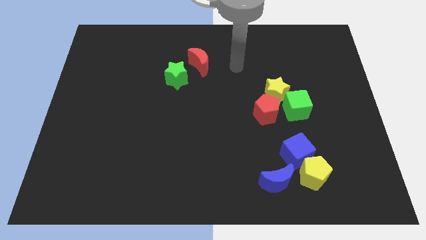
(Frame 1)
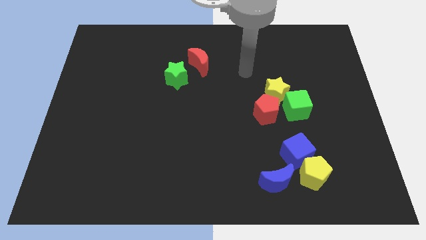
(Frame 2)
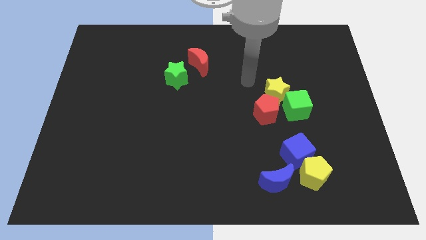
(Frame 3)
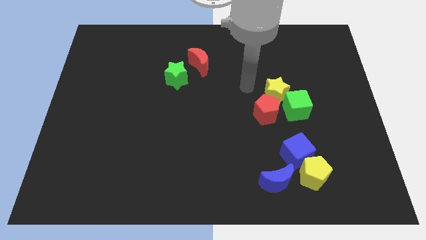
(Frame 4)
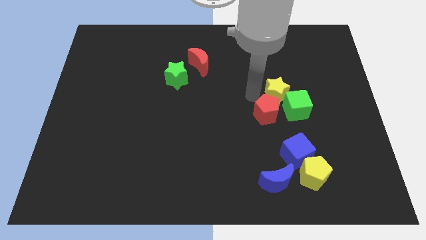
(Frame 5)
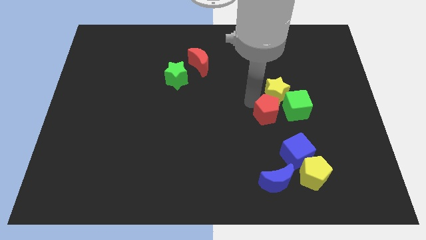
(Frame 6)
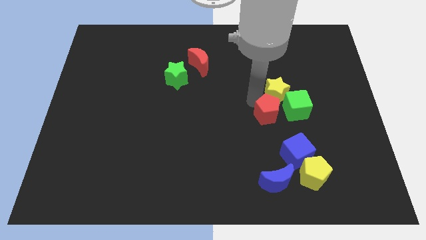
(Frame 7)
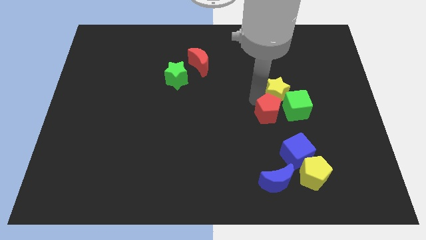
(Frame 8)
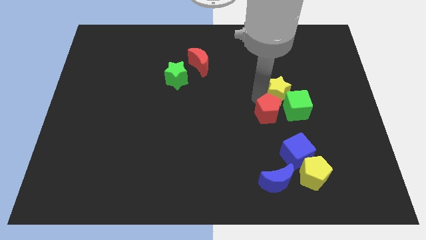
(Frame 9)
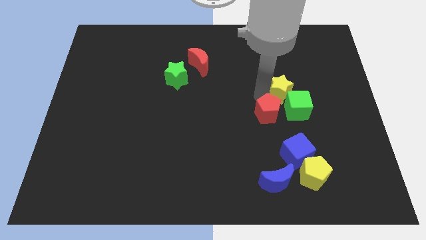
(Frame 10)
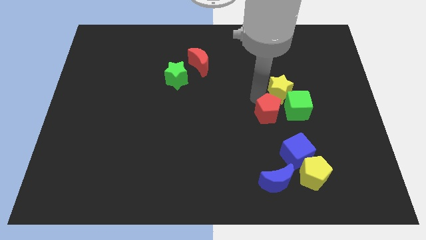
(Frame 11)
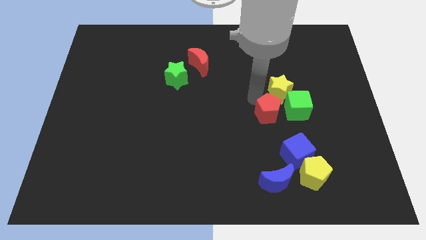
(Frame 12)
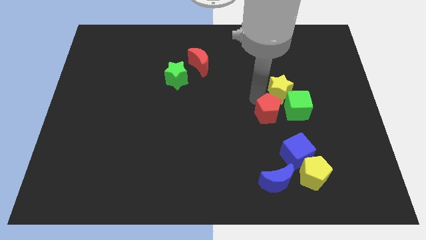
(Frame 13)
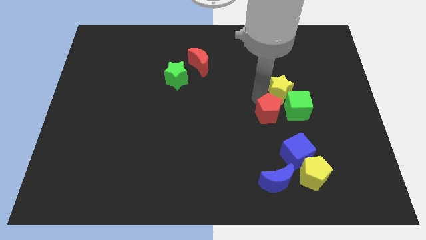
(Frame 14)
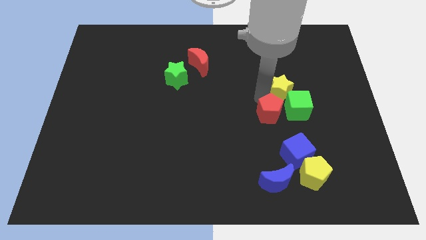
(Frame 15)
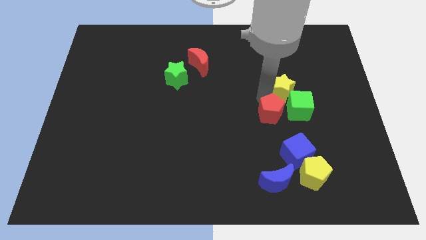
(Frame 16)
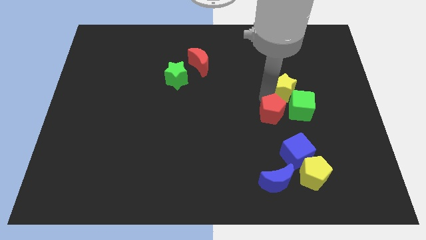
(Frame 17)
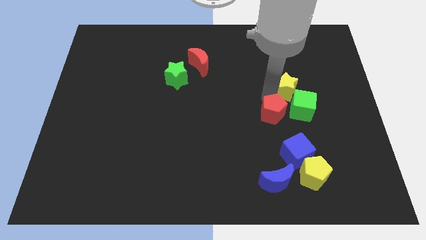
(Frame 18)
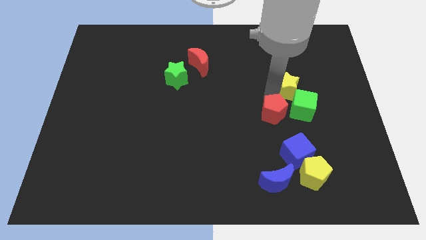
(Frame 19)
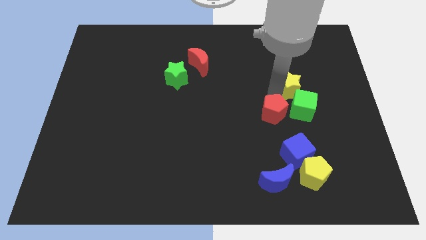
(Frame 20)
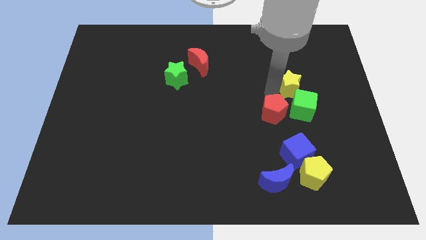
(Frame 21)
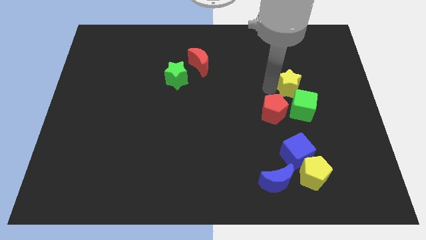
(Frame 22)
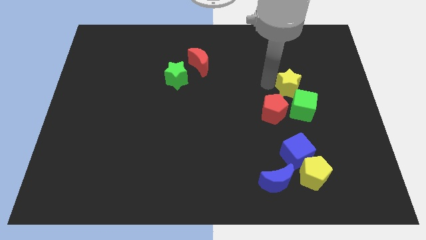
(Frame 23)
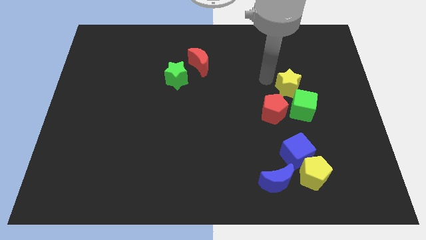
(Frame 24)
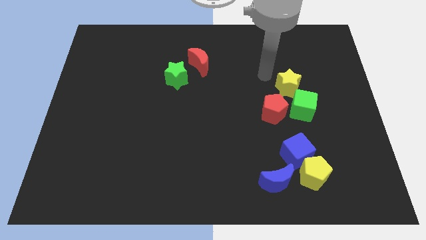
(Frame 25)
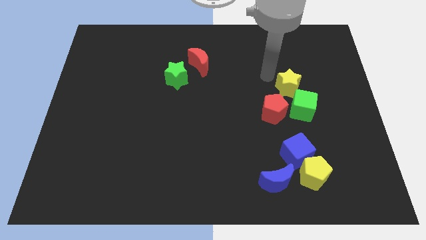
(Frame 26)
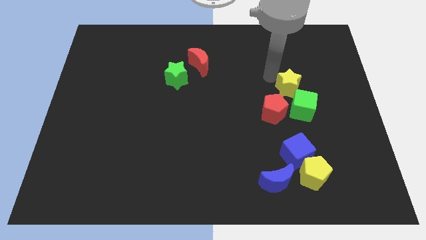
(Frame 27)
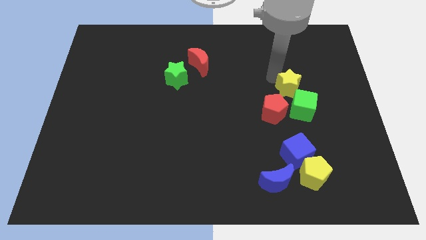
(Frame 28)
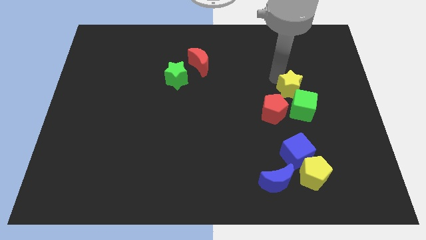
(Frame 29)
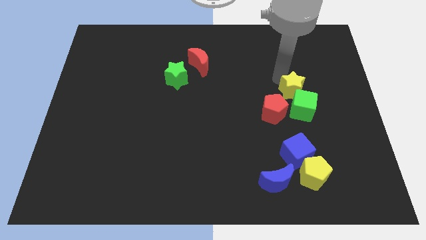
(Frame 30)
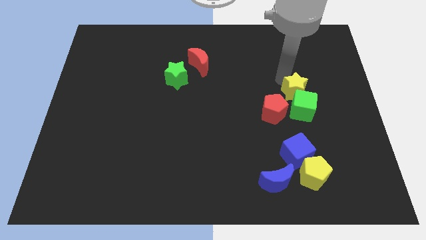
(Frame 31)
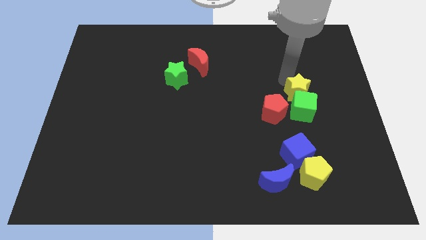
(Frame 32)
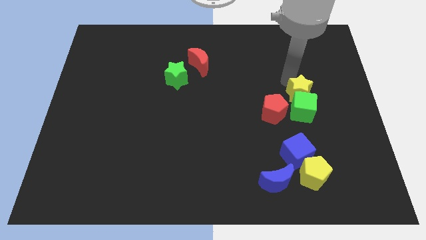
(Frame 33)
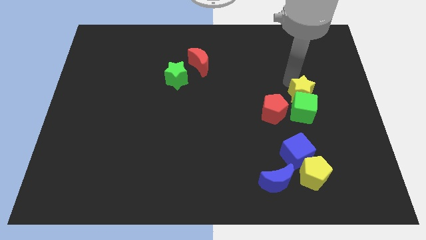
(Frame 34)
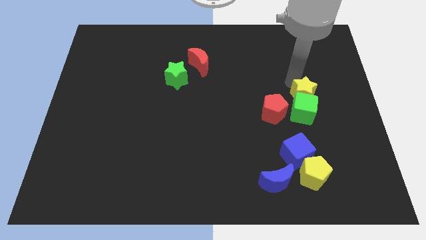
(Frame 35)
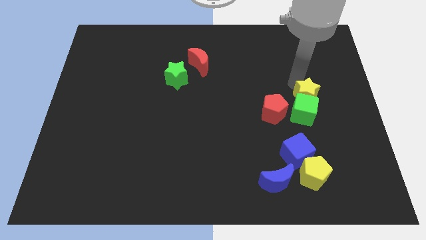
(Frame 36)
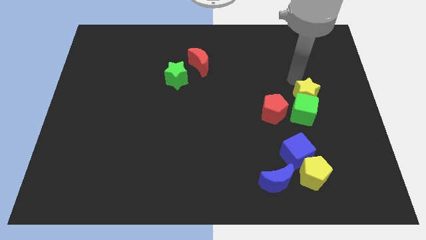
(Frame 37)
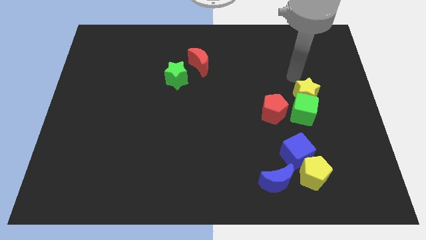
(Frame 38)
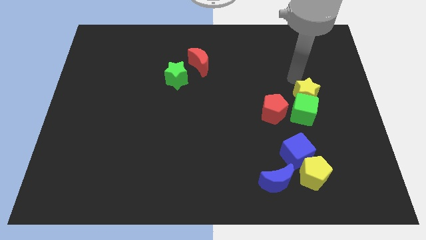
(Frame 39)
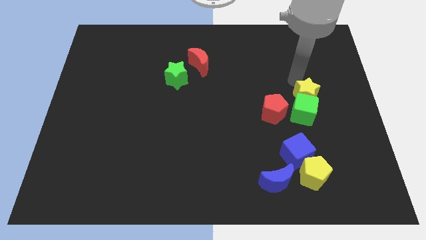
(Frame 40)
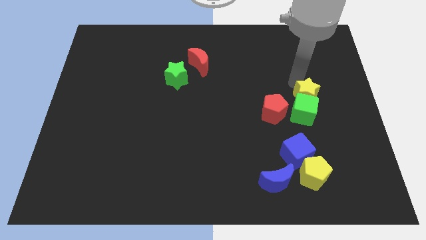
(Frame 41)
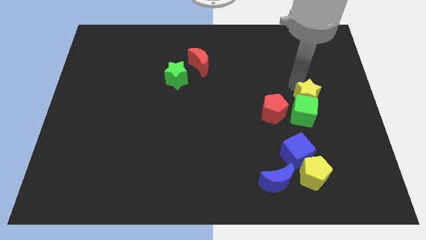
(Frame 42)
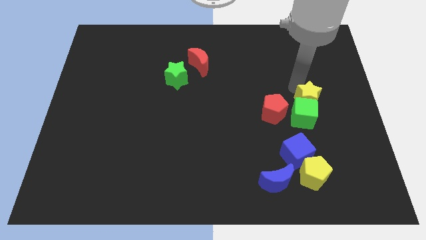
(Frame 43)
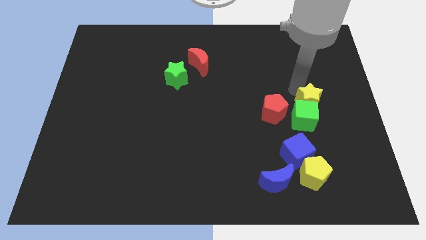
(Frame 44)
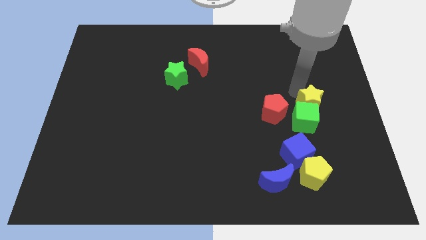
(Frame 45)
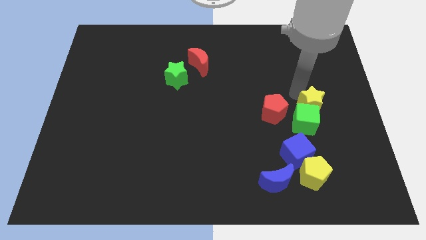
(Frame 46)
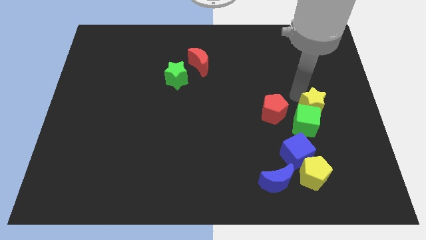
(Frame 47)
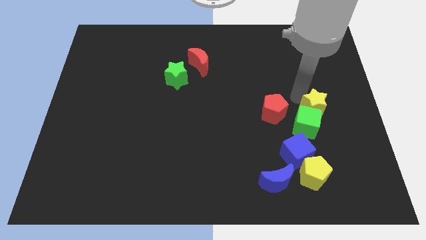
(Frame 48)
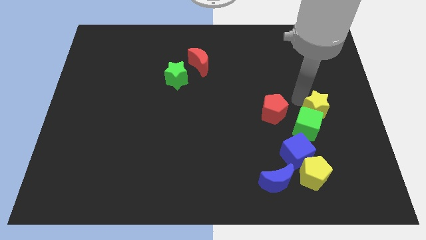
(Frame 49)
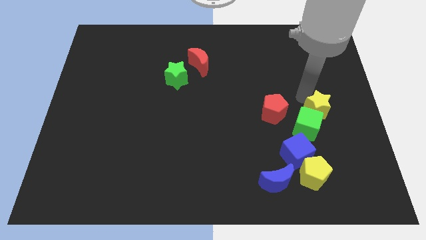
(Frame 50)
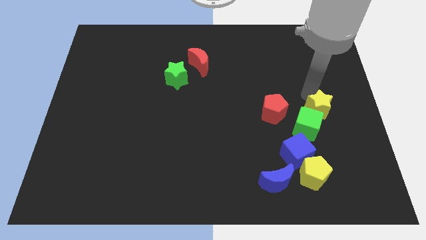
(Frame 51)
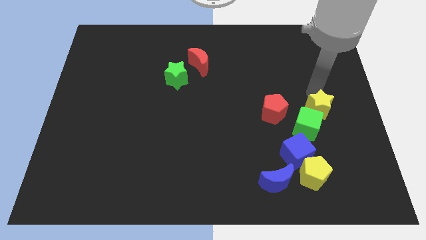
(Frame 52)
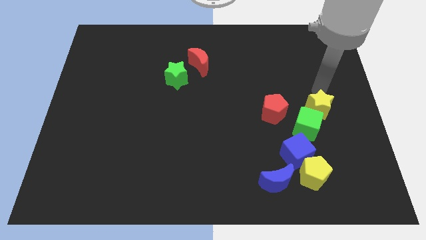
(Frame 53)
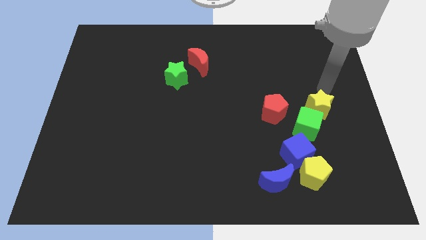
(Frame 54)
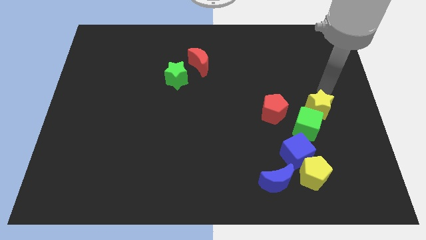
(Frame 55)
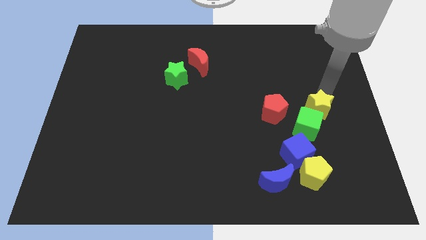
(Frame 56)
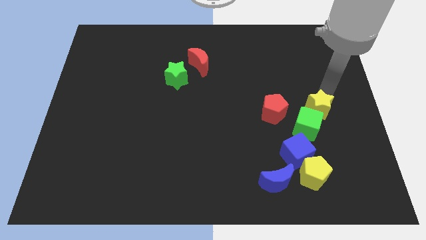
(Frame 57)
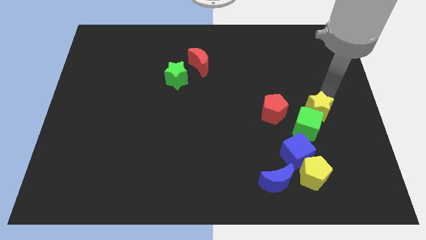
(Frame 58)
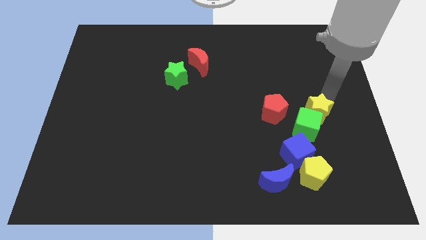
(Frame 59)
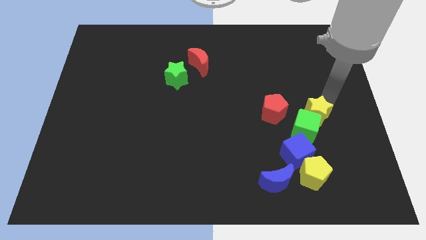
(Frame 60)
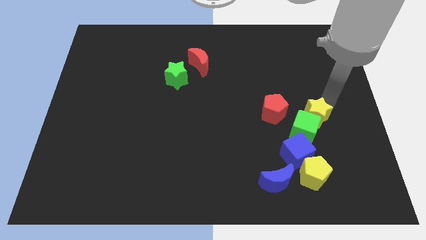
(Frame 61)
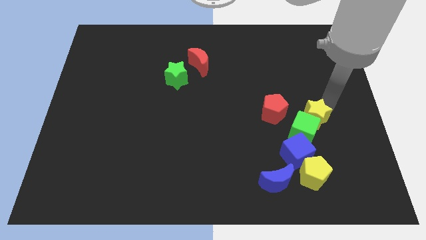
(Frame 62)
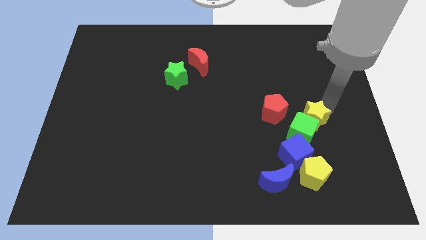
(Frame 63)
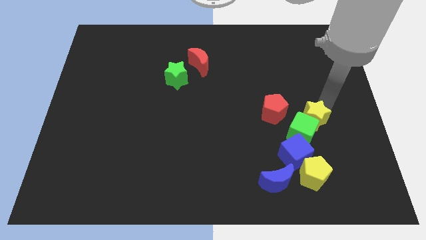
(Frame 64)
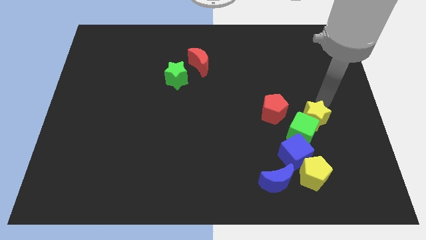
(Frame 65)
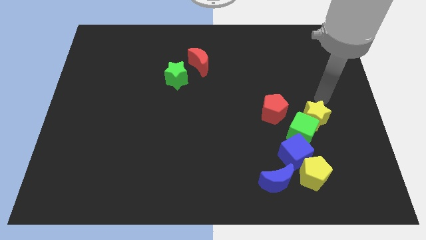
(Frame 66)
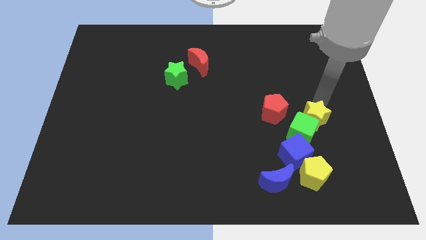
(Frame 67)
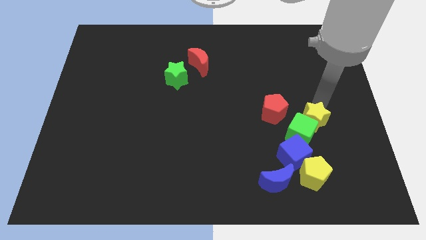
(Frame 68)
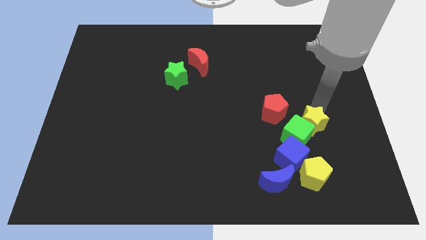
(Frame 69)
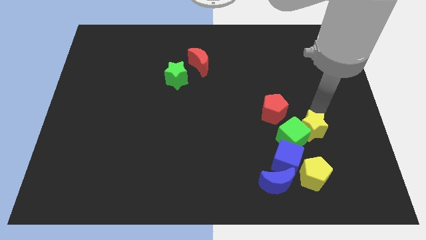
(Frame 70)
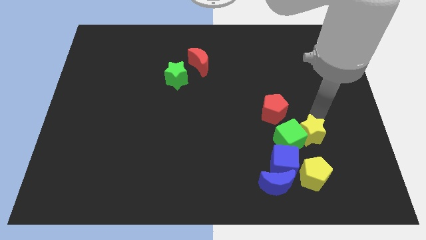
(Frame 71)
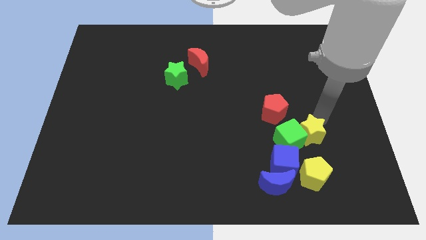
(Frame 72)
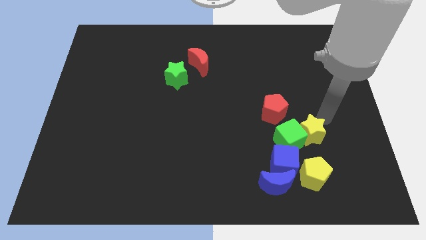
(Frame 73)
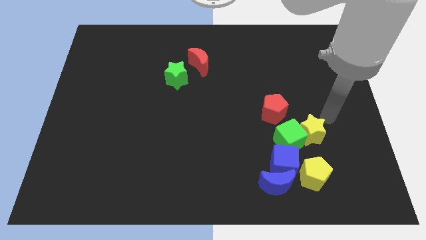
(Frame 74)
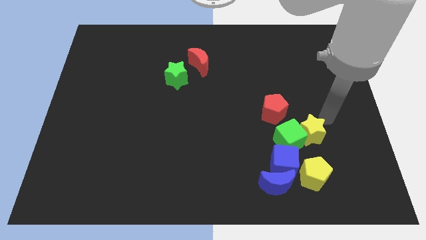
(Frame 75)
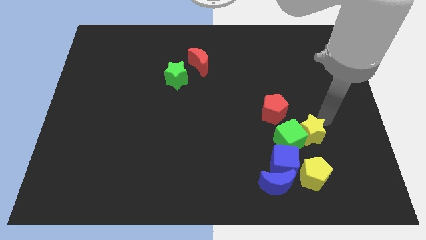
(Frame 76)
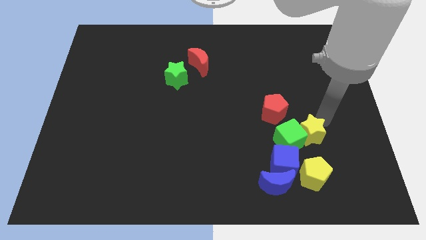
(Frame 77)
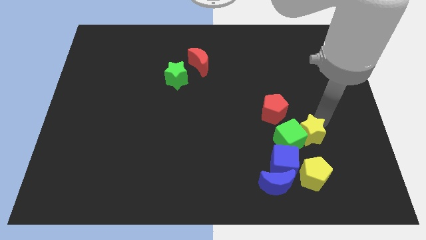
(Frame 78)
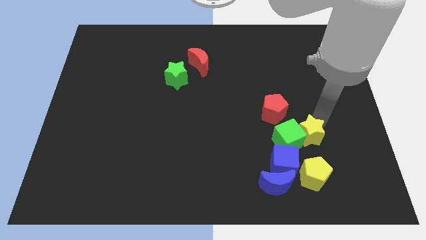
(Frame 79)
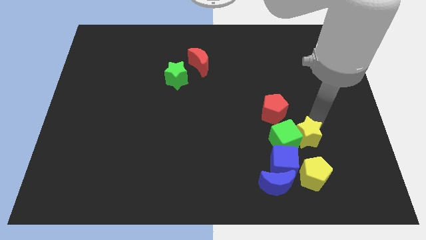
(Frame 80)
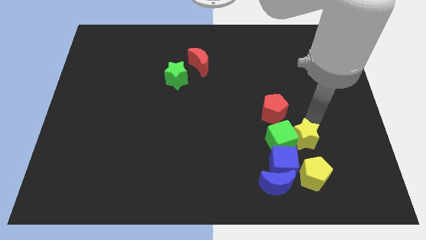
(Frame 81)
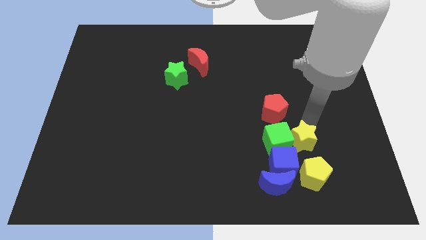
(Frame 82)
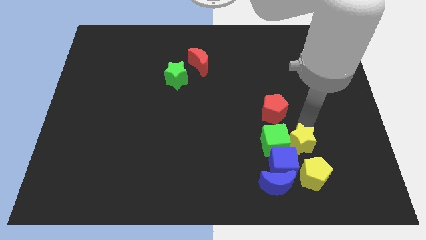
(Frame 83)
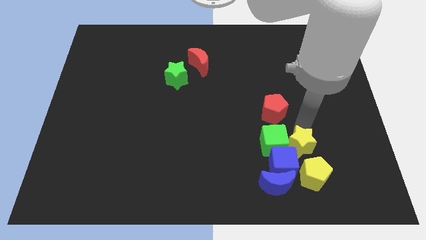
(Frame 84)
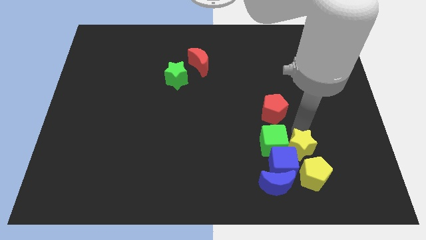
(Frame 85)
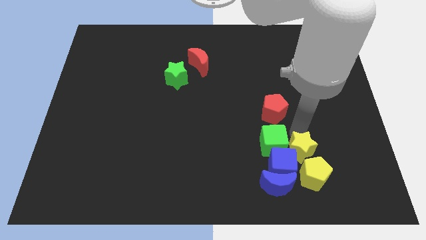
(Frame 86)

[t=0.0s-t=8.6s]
push the yellow star to the blue cube
